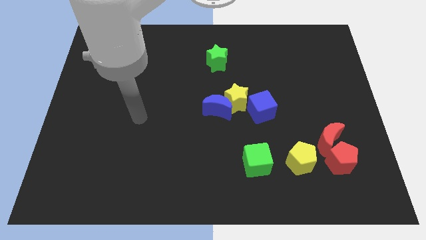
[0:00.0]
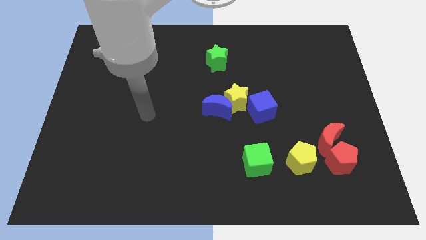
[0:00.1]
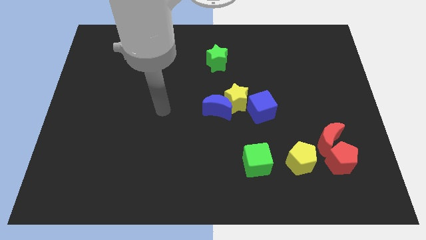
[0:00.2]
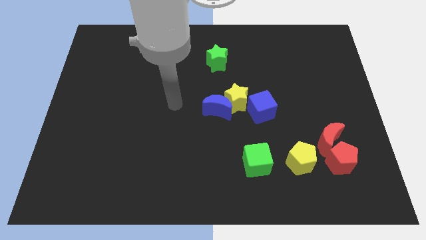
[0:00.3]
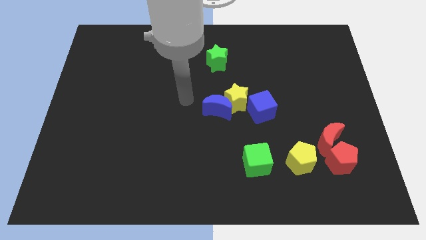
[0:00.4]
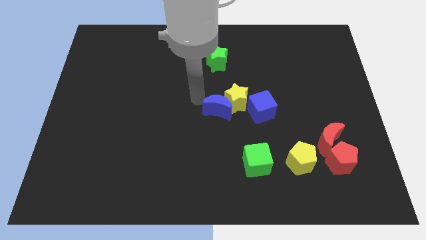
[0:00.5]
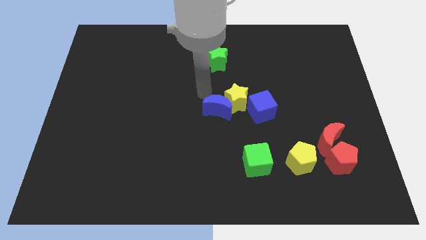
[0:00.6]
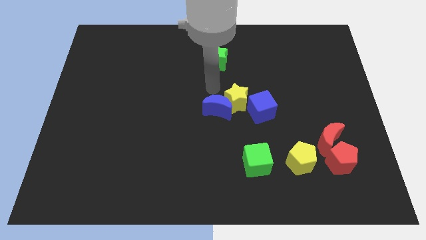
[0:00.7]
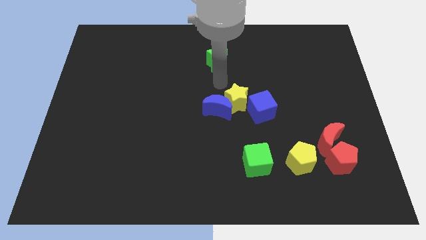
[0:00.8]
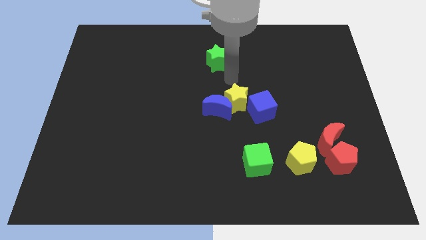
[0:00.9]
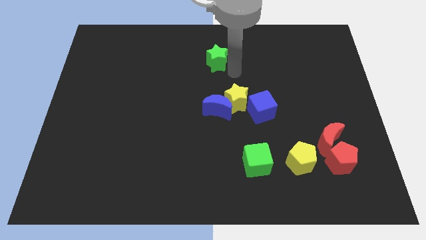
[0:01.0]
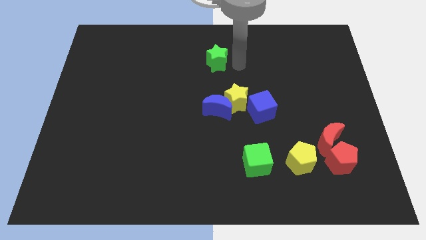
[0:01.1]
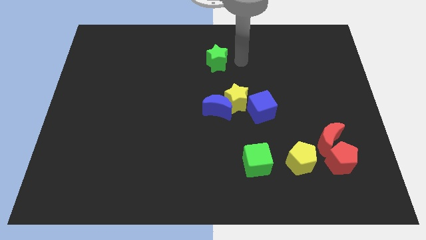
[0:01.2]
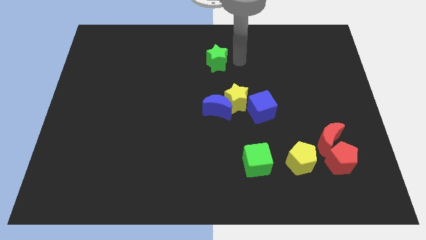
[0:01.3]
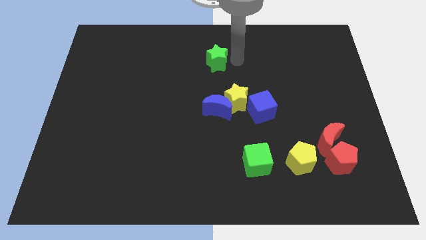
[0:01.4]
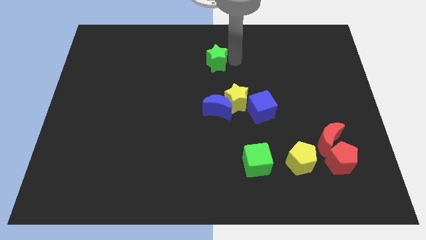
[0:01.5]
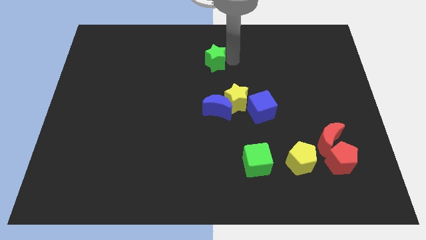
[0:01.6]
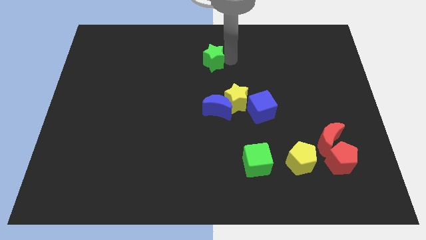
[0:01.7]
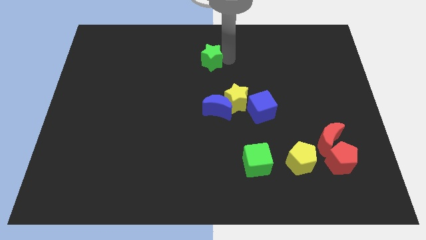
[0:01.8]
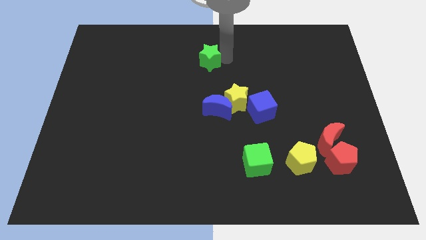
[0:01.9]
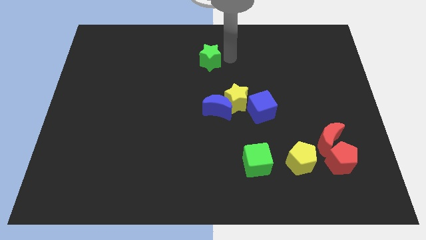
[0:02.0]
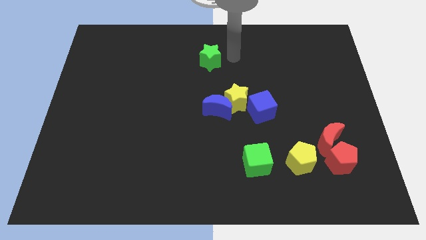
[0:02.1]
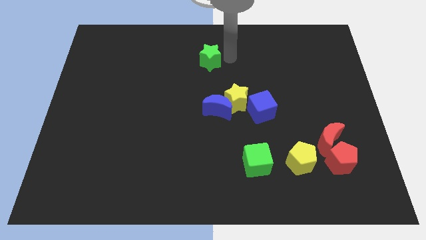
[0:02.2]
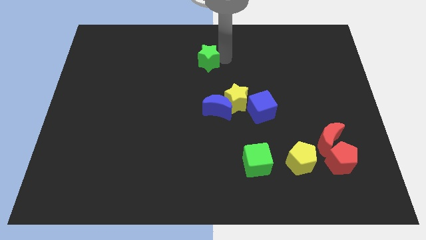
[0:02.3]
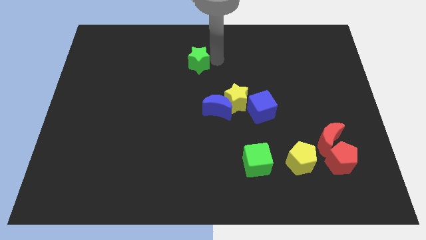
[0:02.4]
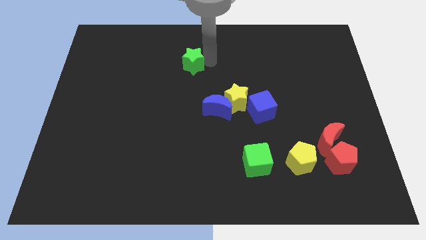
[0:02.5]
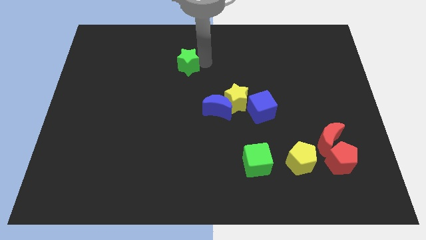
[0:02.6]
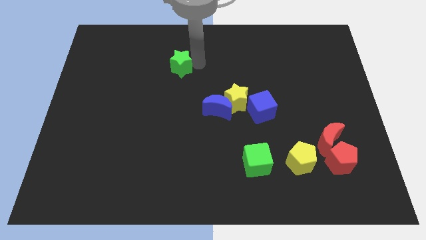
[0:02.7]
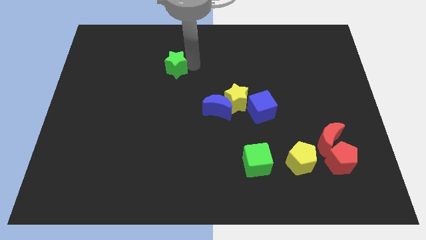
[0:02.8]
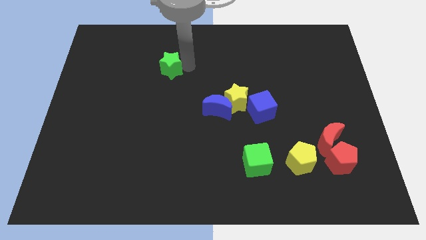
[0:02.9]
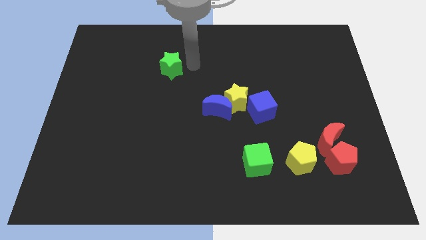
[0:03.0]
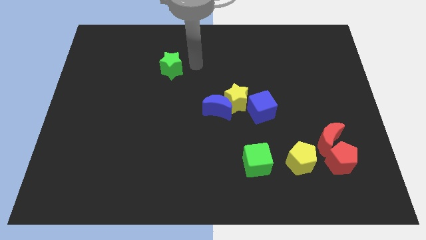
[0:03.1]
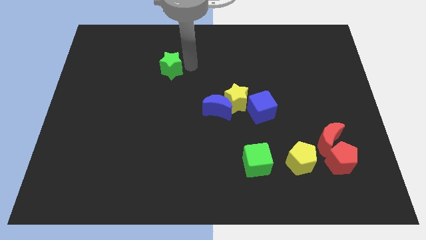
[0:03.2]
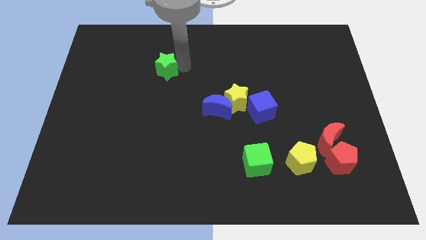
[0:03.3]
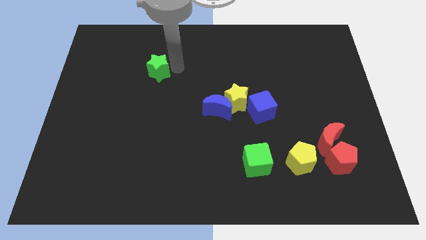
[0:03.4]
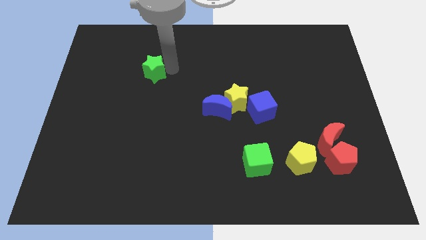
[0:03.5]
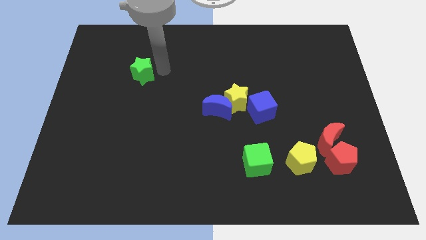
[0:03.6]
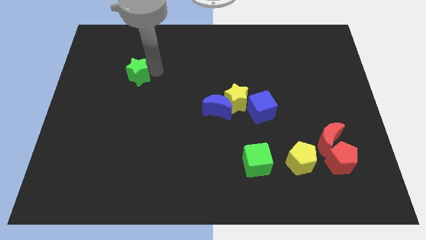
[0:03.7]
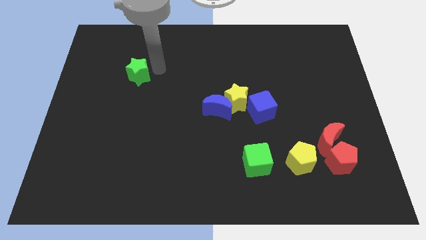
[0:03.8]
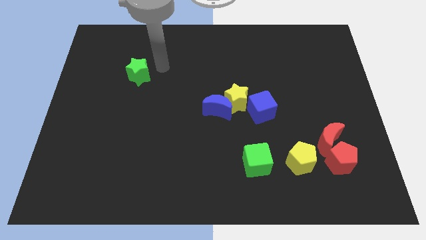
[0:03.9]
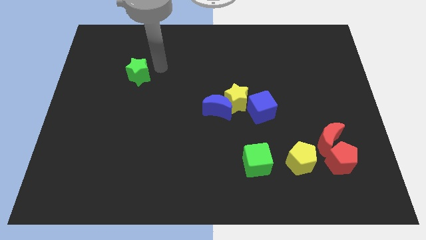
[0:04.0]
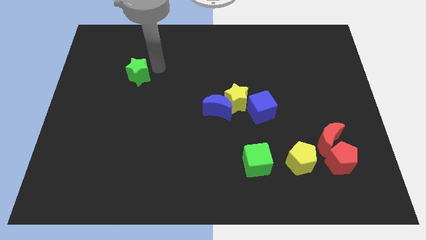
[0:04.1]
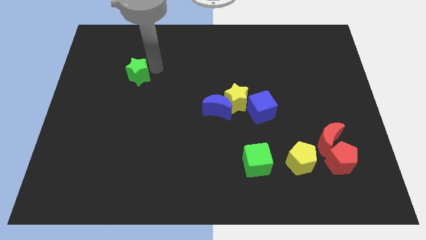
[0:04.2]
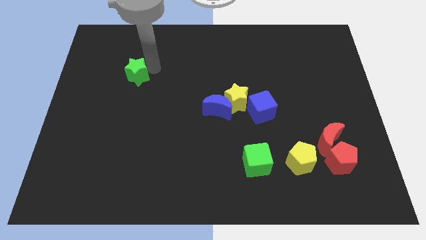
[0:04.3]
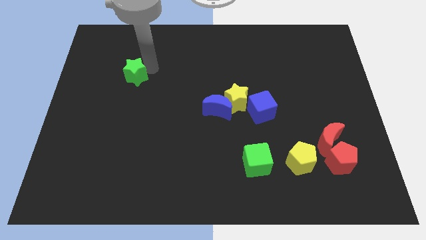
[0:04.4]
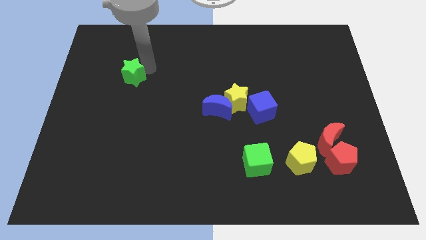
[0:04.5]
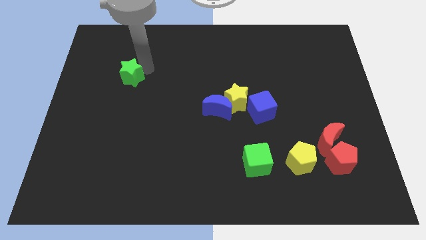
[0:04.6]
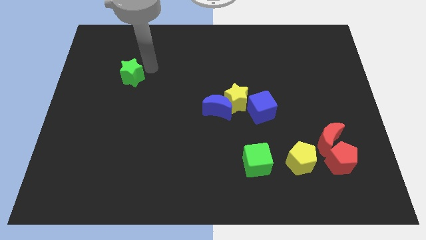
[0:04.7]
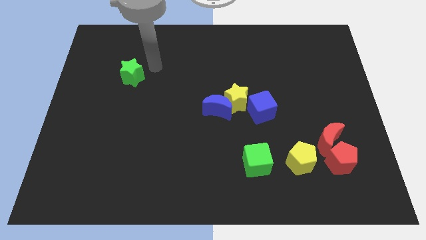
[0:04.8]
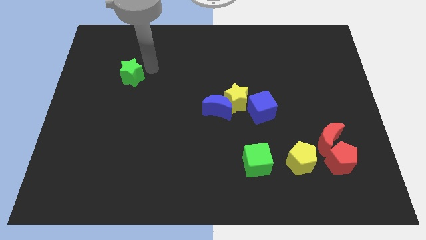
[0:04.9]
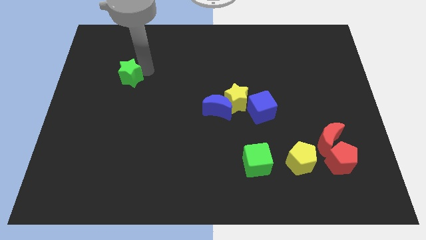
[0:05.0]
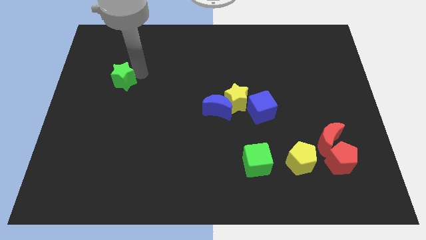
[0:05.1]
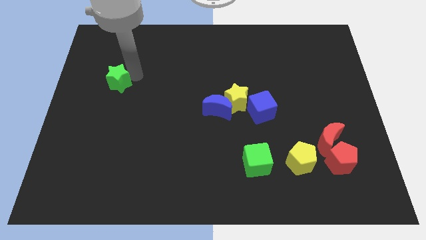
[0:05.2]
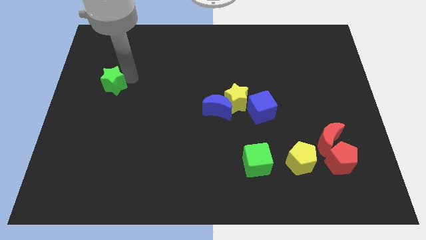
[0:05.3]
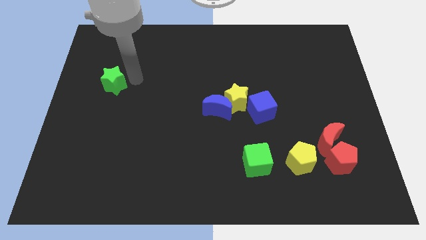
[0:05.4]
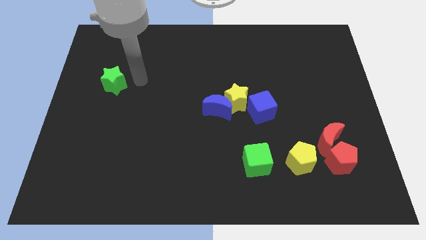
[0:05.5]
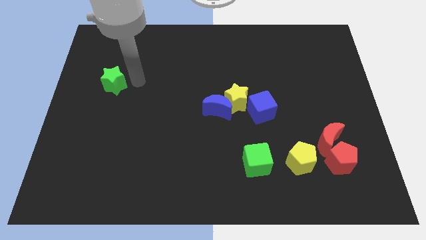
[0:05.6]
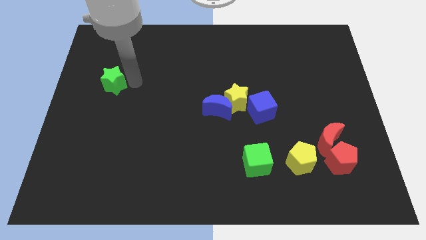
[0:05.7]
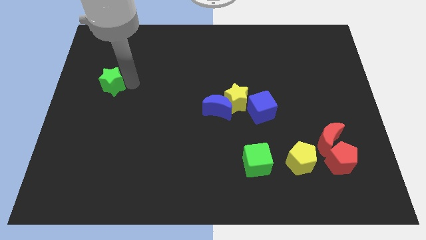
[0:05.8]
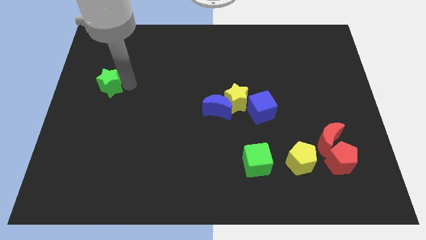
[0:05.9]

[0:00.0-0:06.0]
move the green star to the left side
